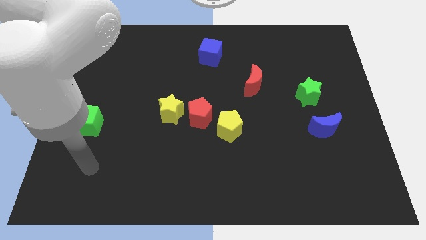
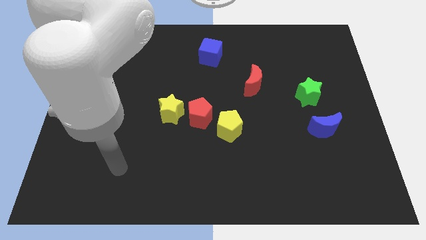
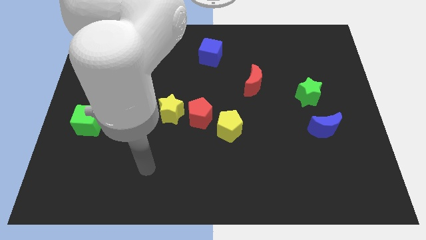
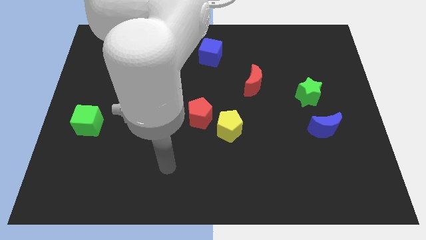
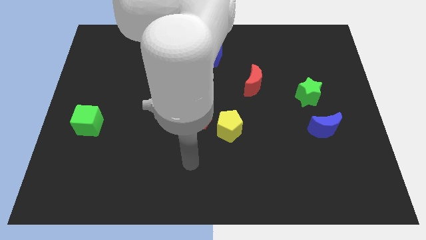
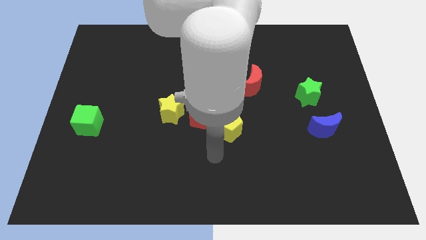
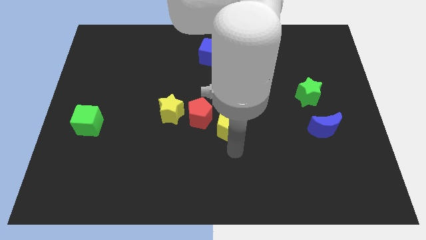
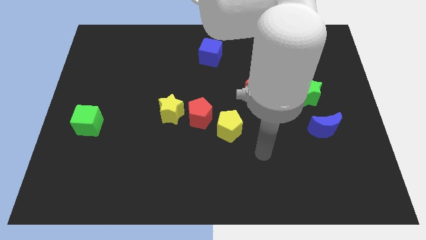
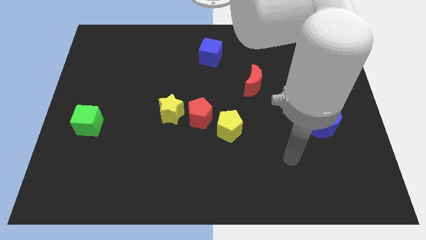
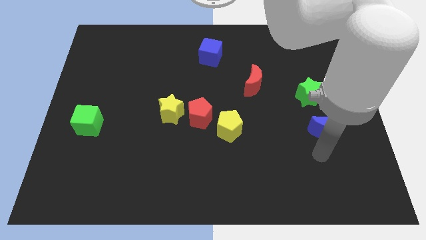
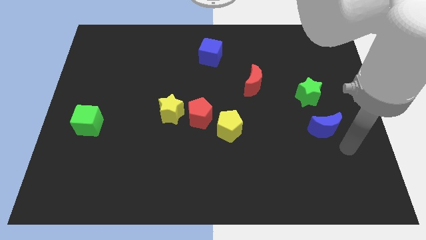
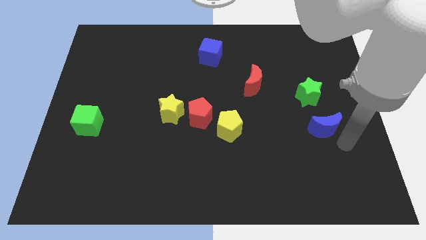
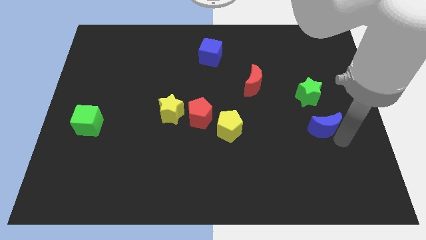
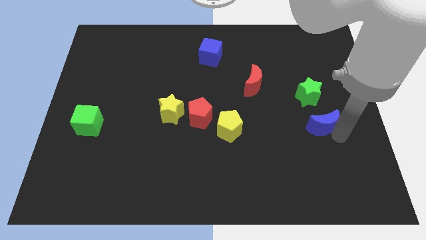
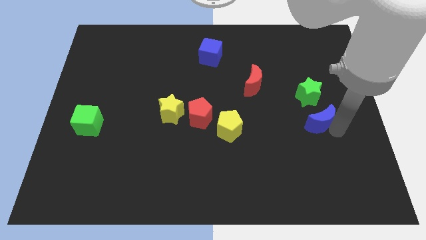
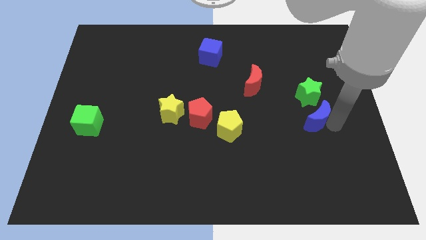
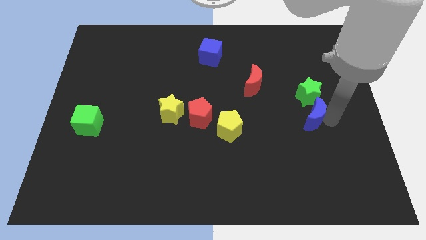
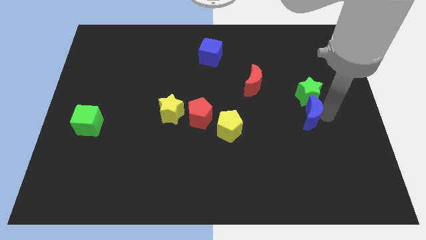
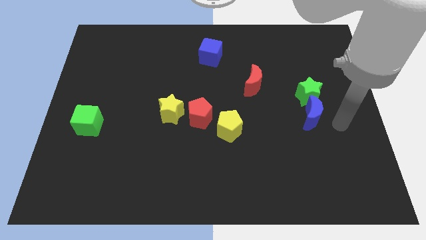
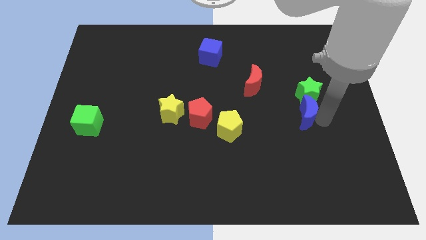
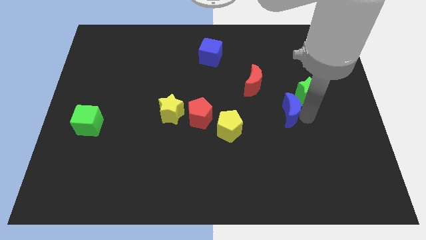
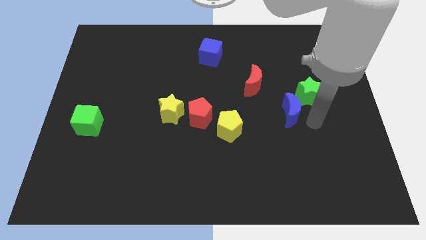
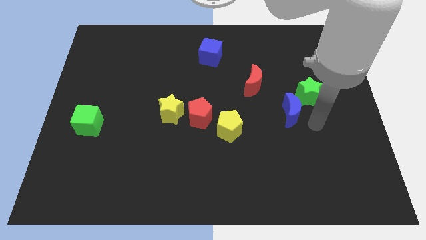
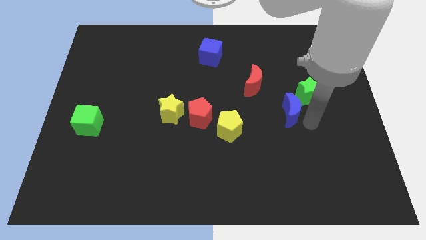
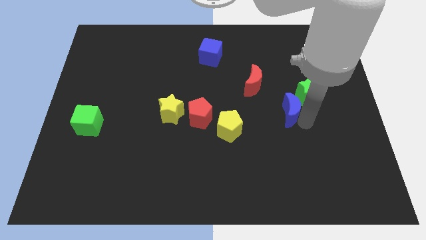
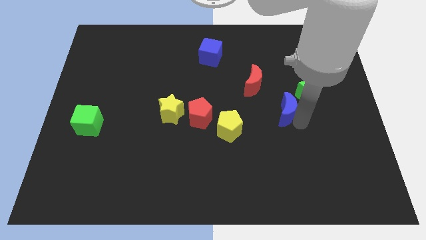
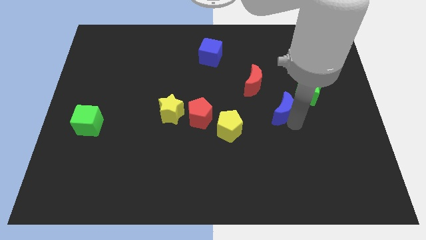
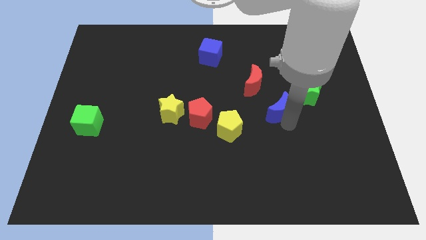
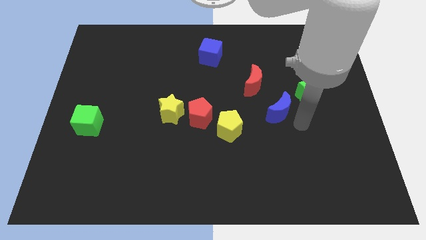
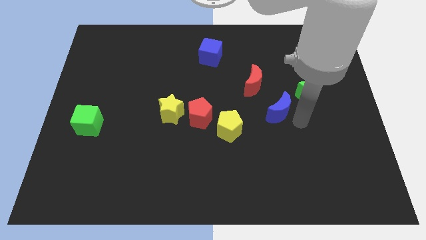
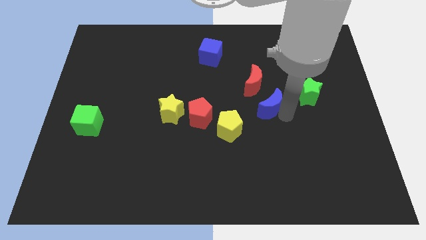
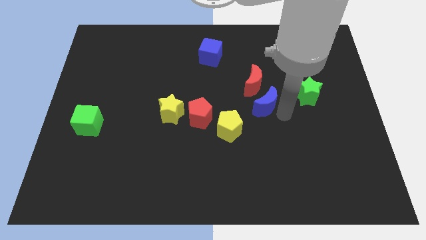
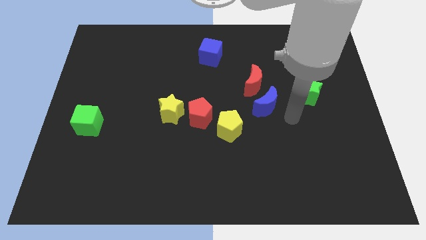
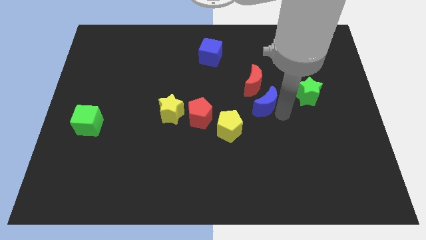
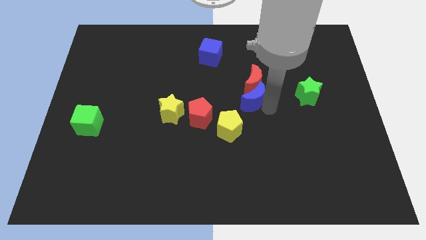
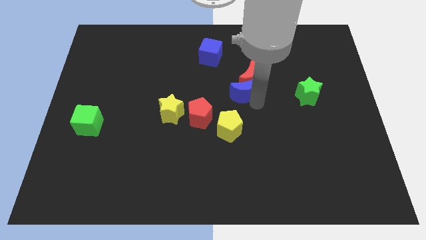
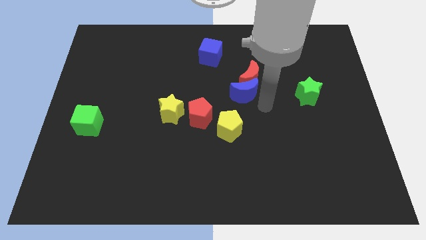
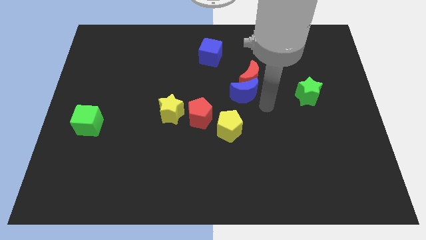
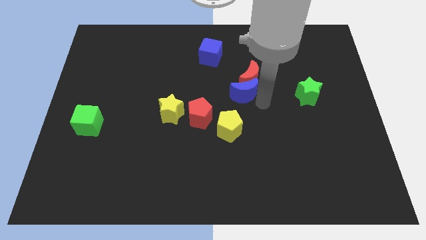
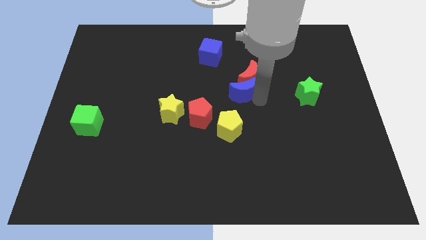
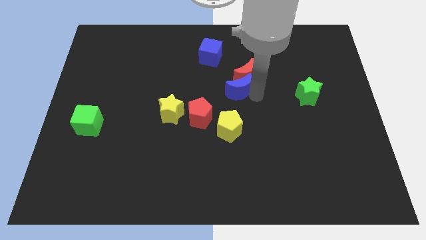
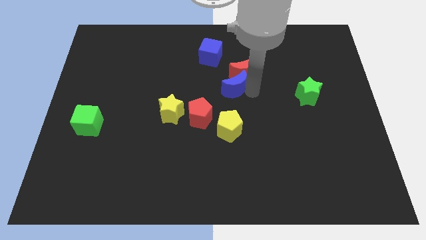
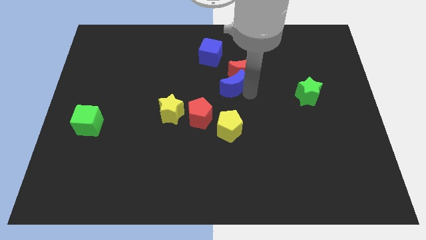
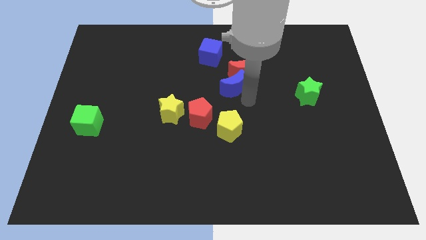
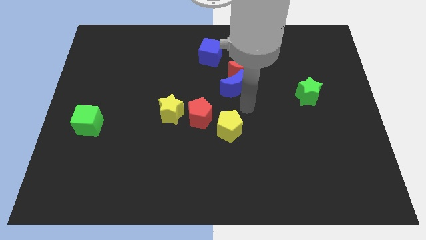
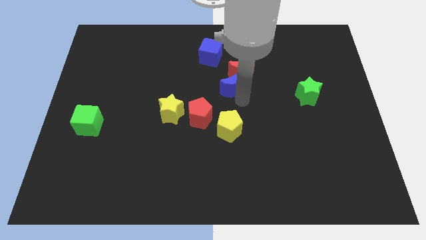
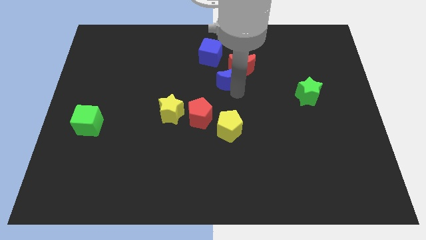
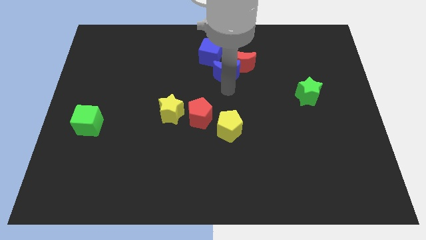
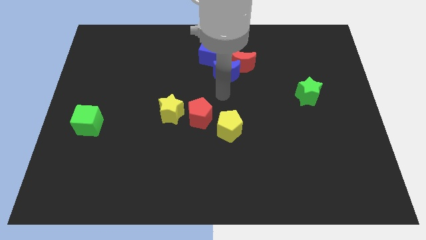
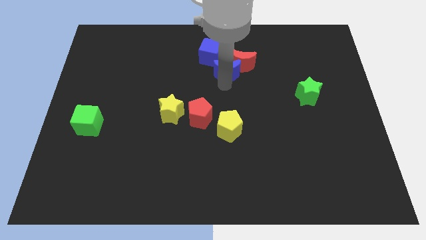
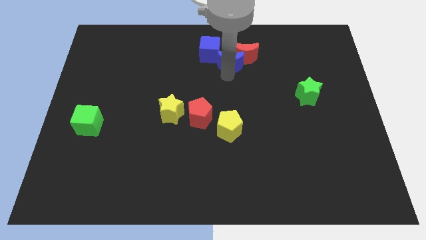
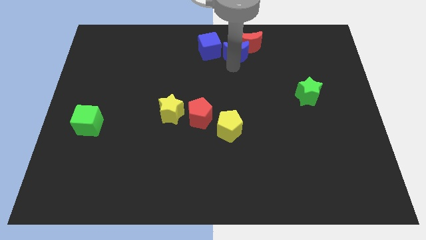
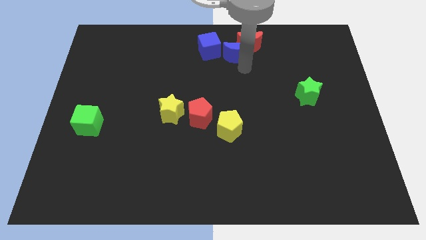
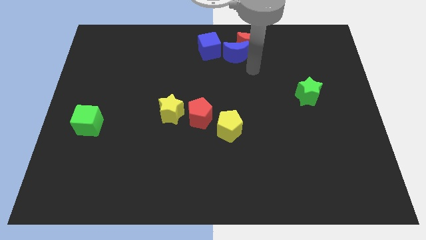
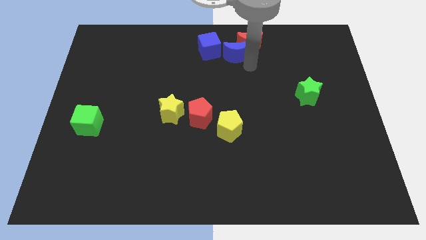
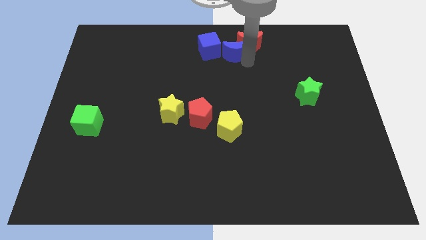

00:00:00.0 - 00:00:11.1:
move the blue moon to the top

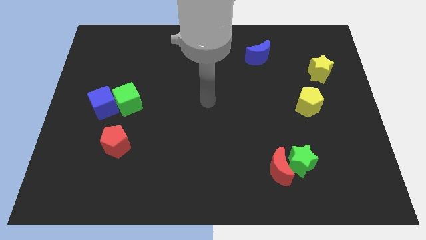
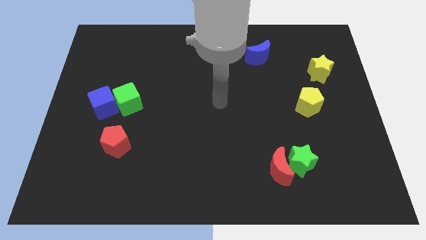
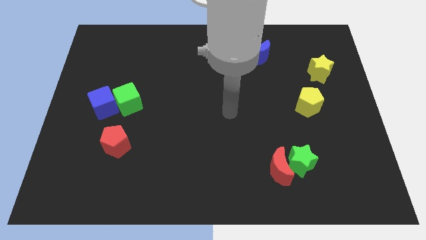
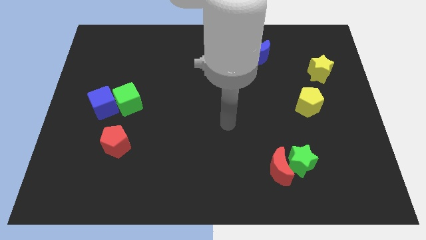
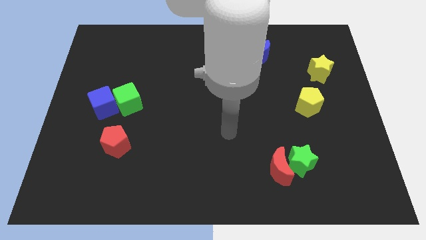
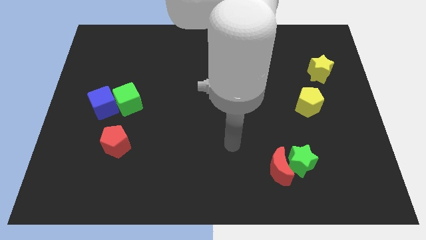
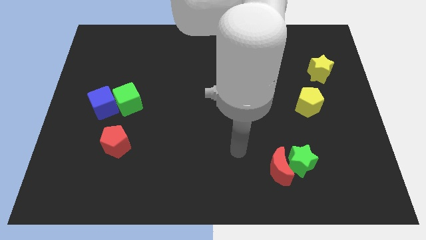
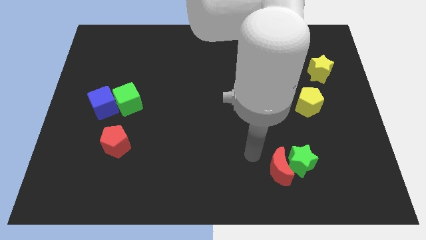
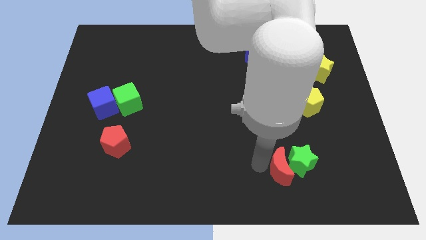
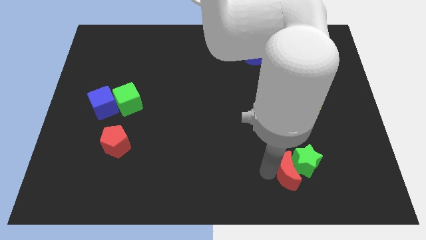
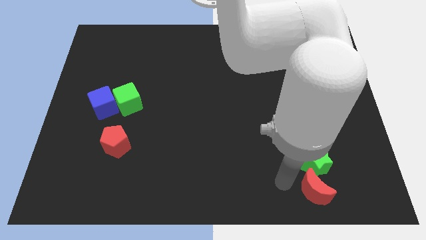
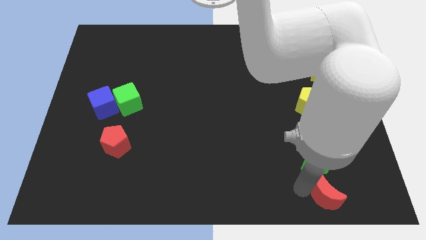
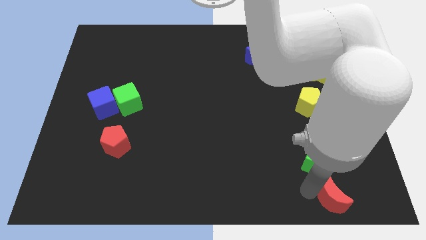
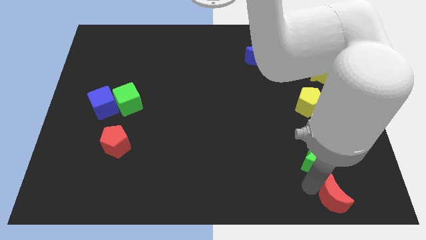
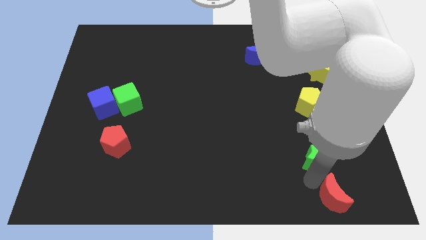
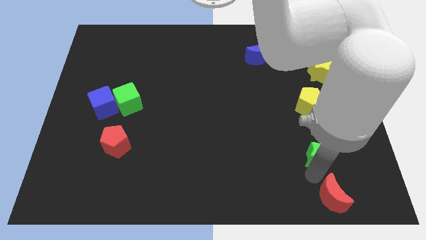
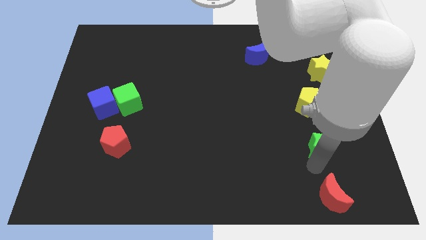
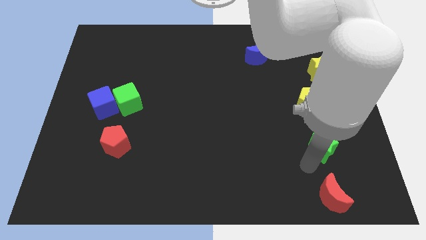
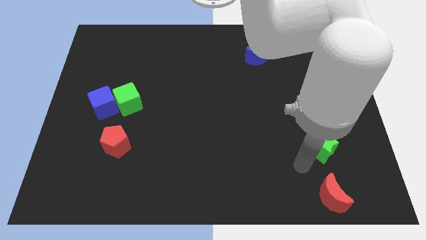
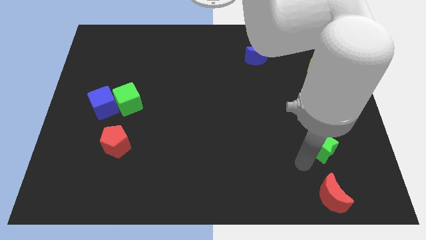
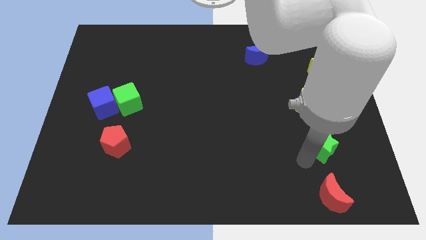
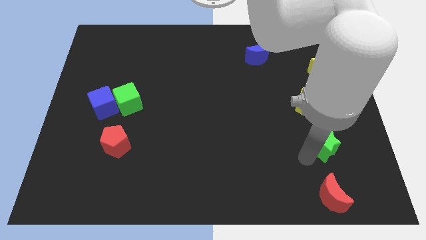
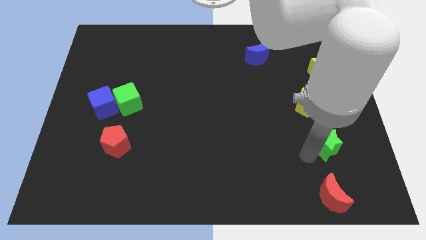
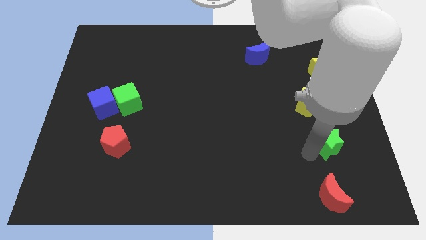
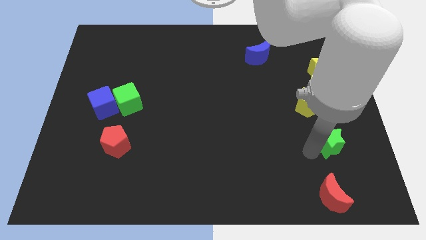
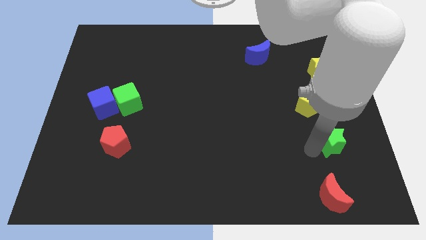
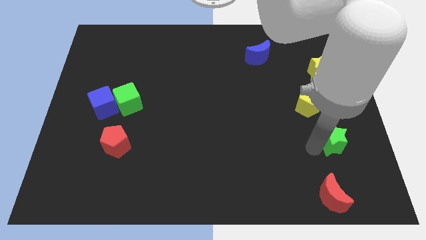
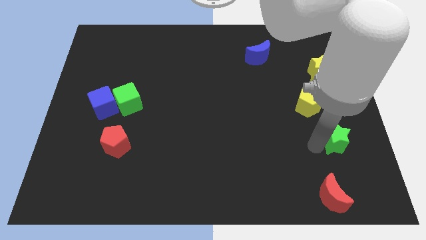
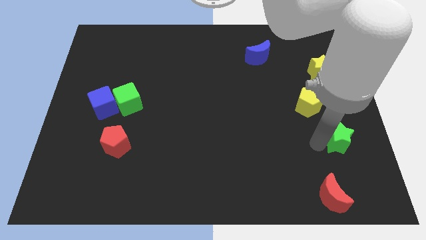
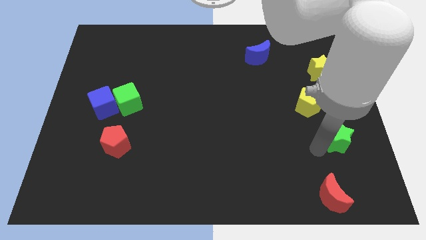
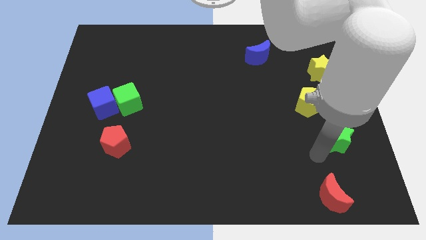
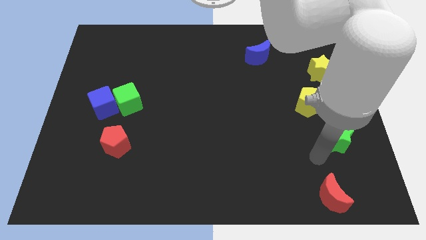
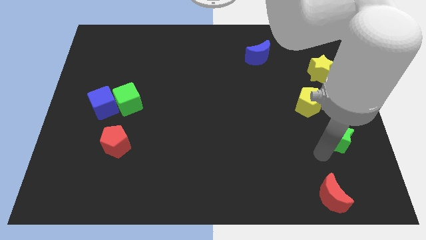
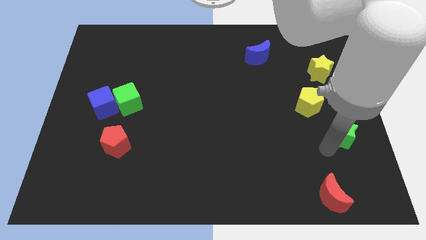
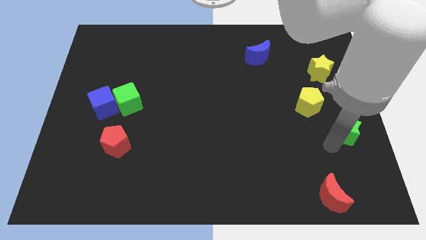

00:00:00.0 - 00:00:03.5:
move the green star to the right side of the board
